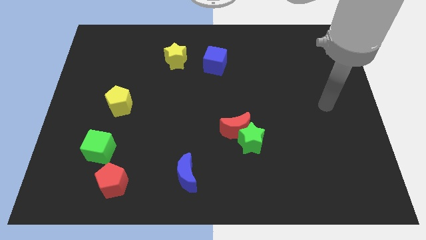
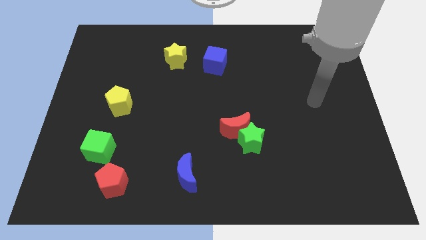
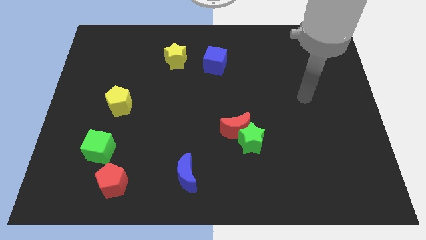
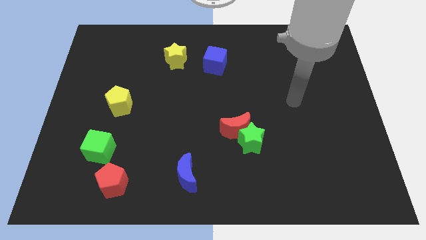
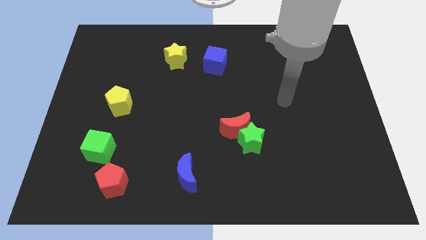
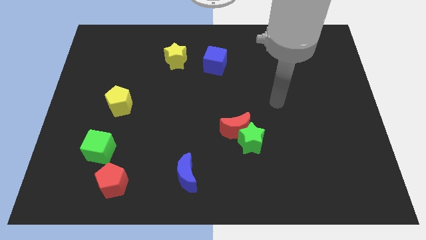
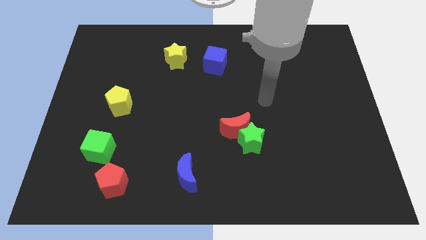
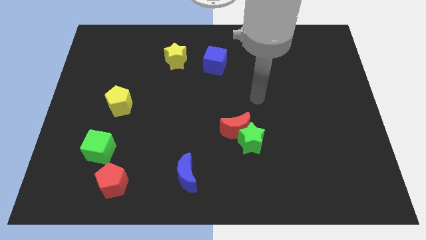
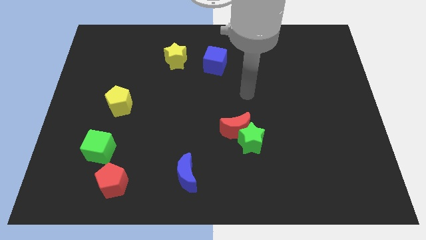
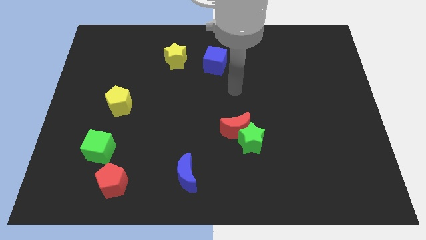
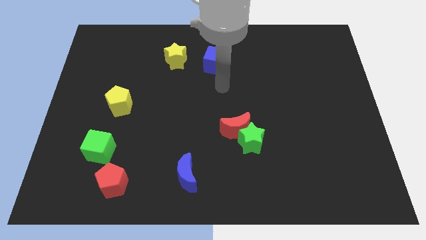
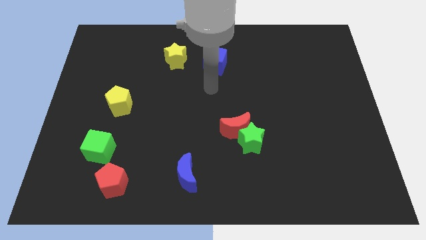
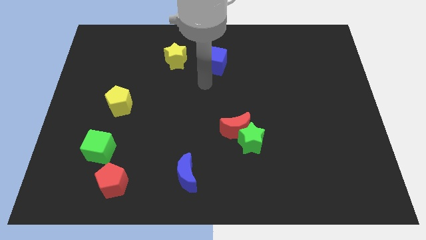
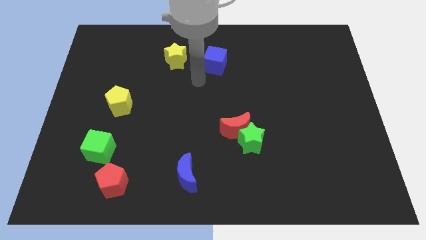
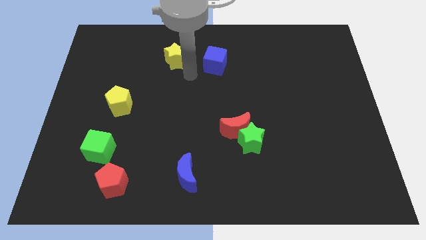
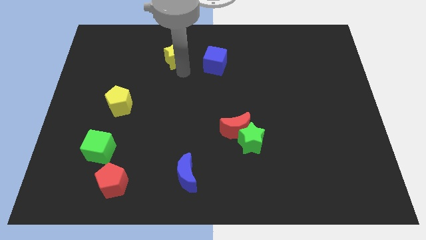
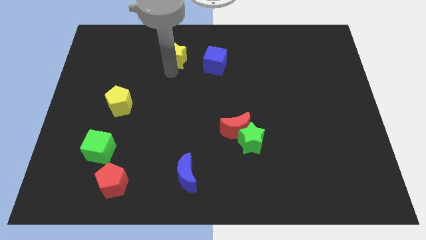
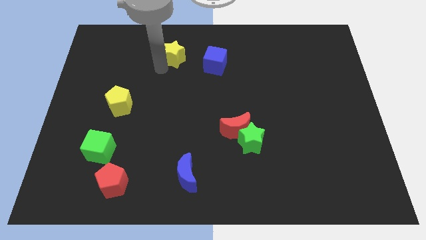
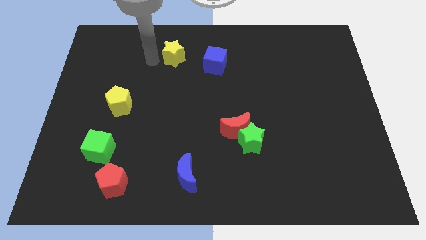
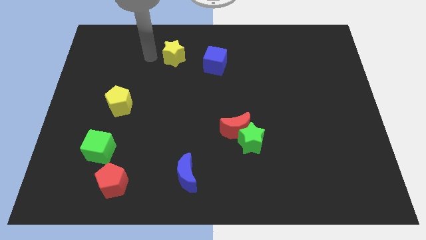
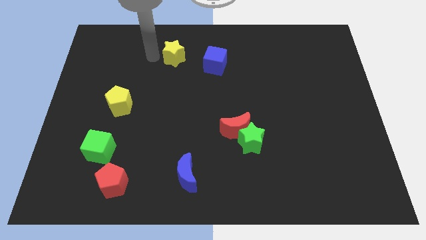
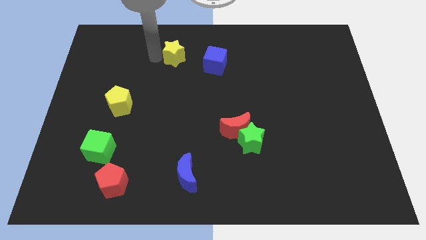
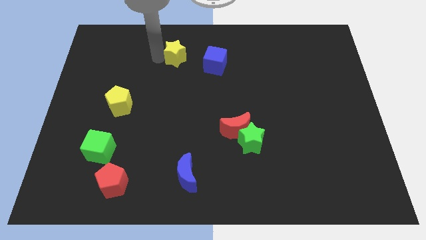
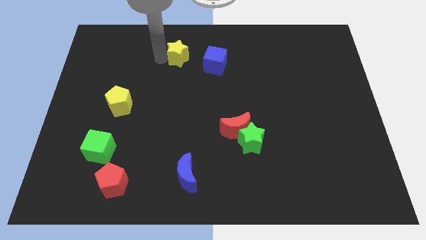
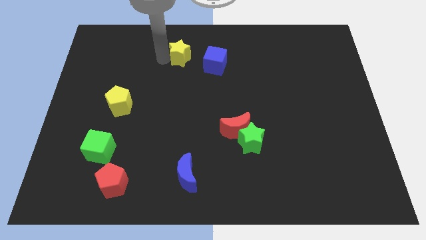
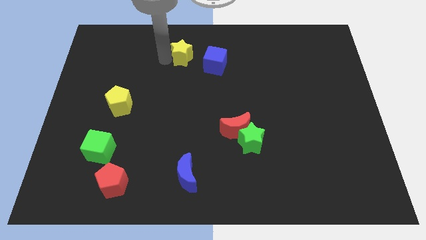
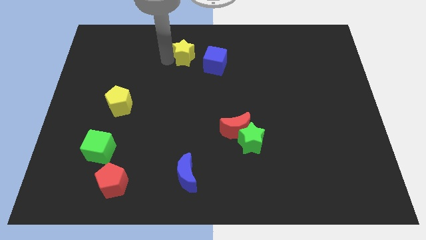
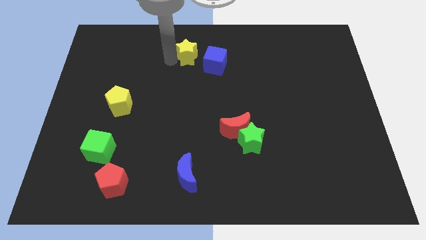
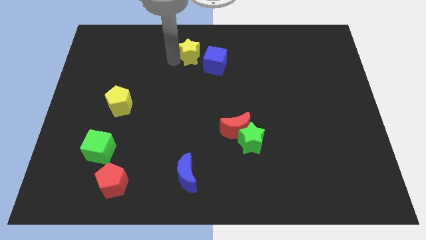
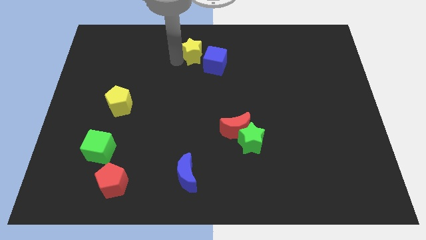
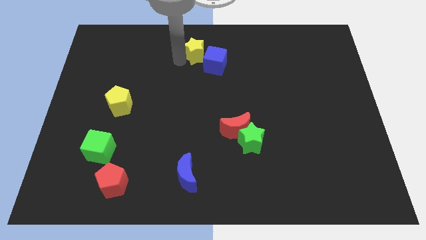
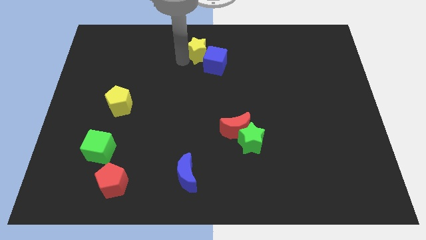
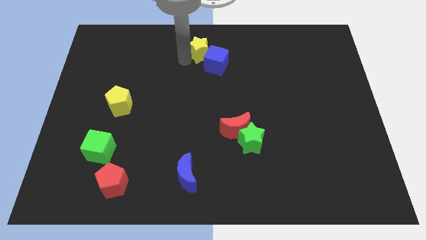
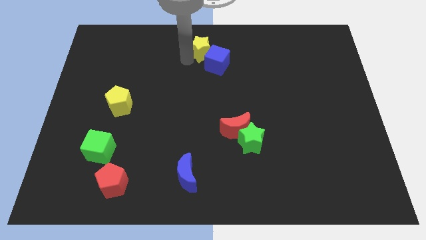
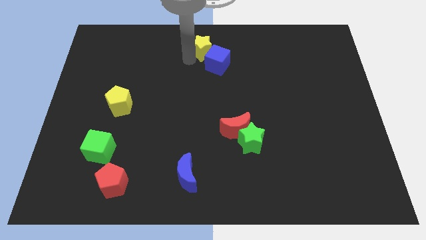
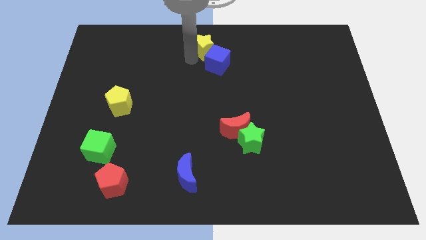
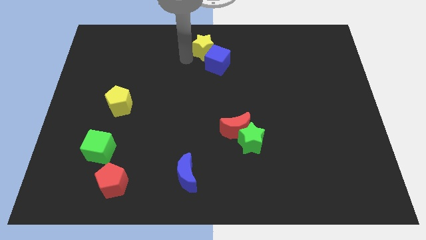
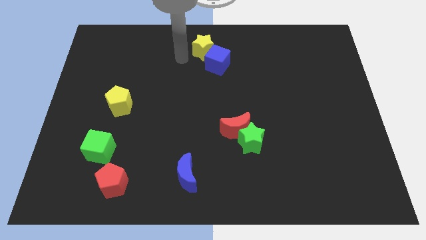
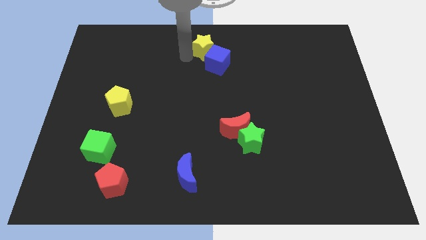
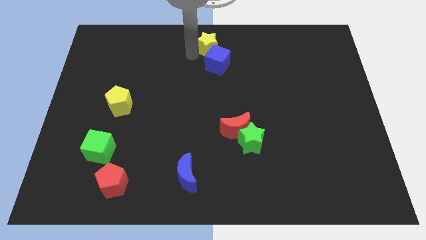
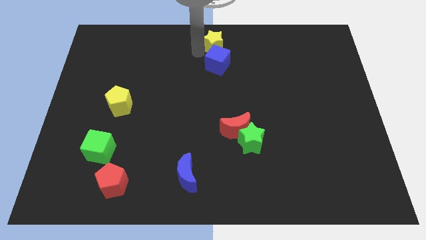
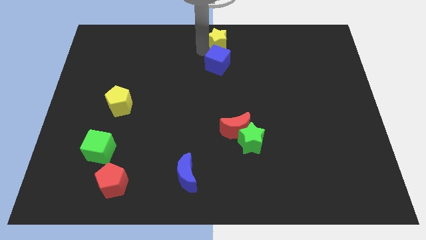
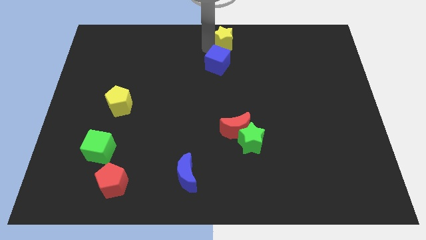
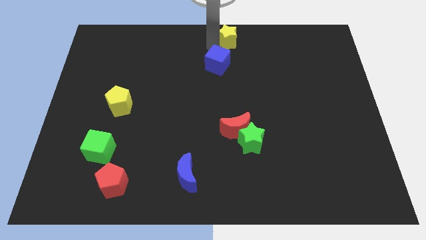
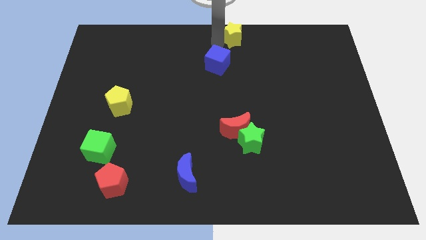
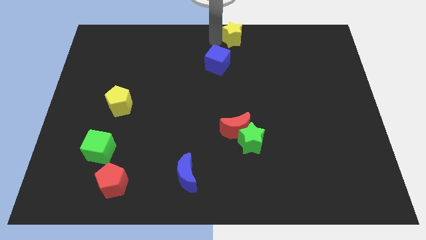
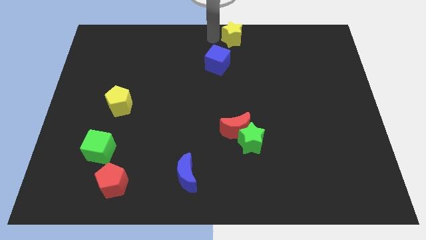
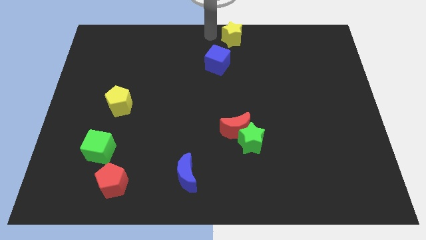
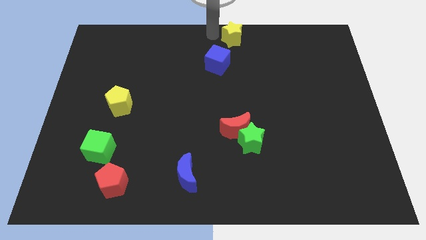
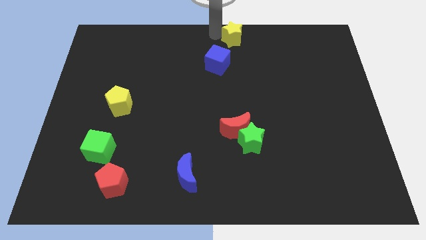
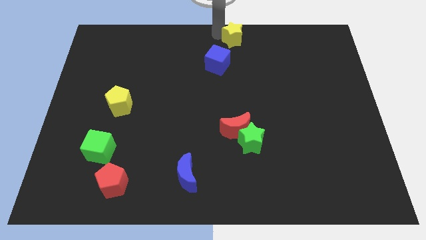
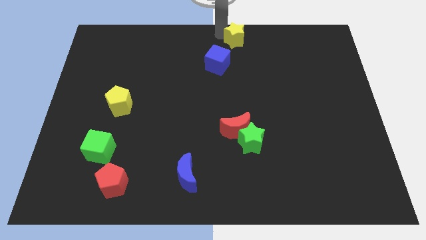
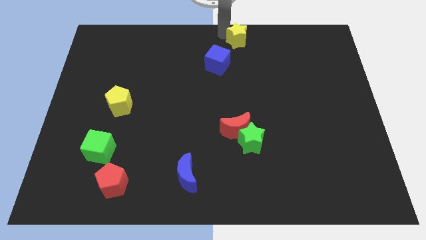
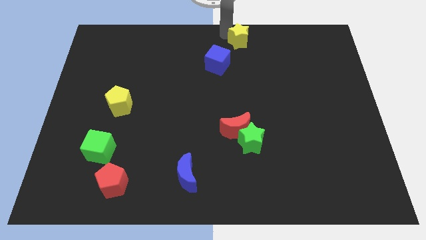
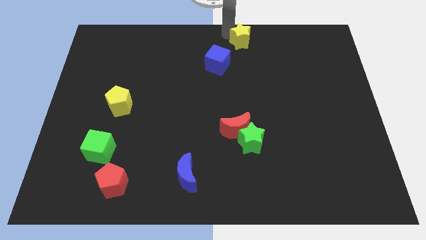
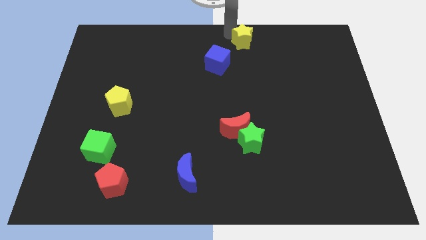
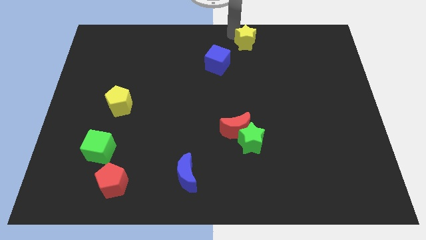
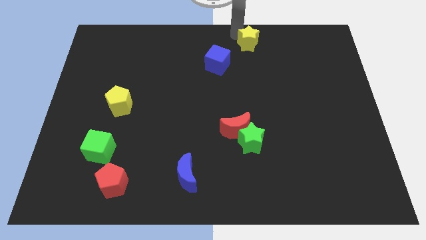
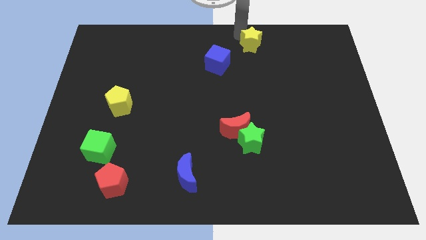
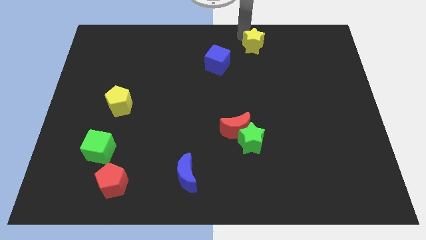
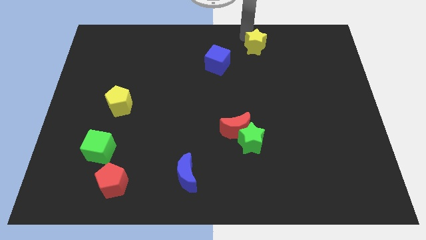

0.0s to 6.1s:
move the yellow star to the right

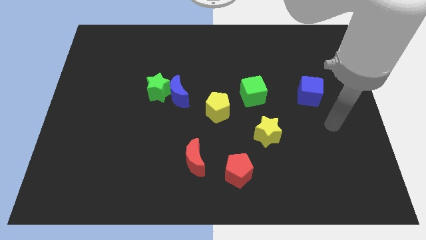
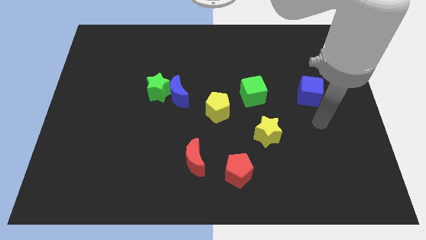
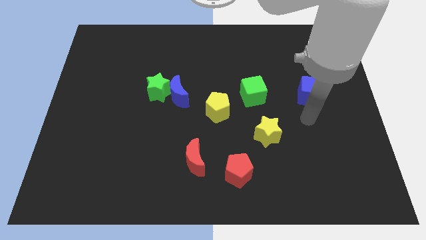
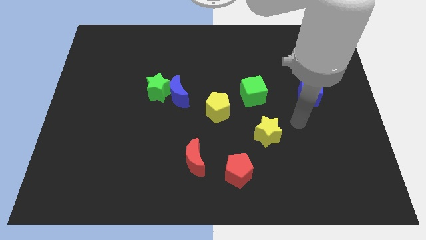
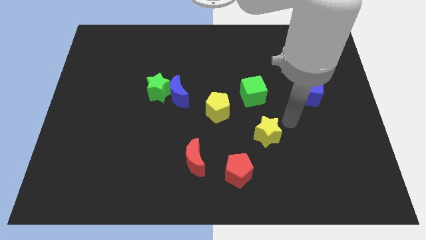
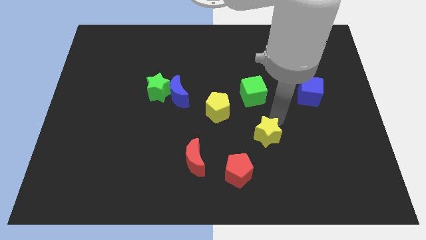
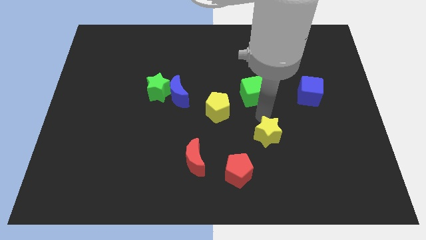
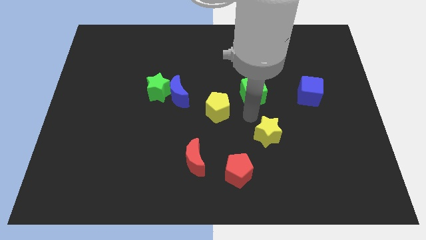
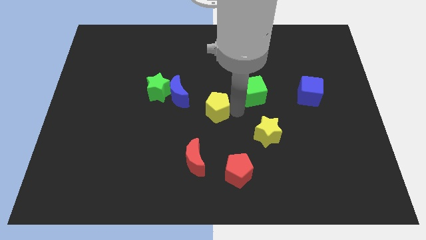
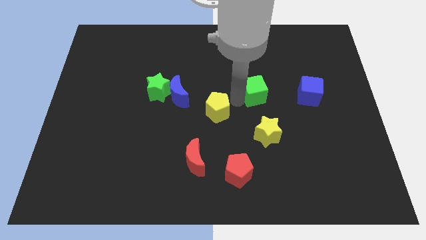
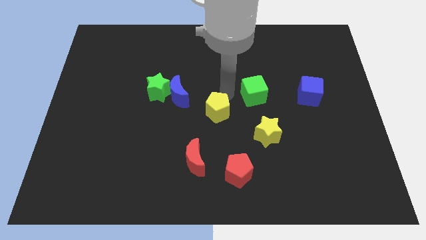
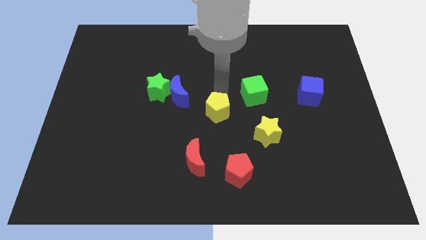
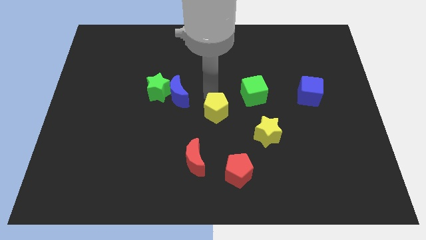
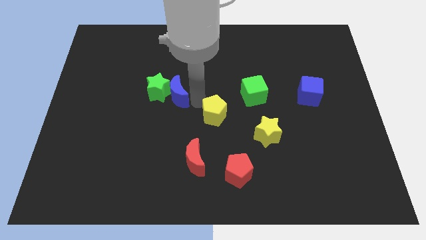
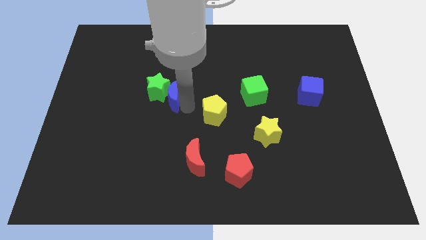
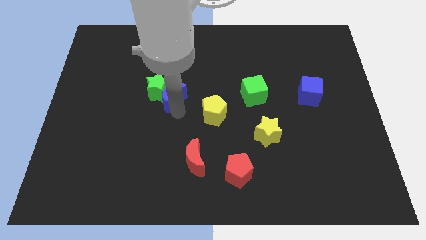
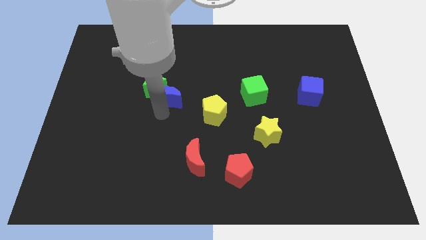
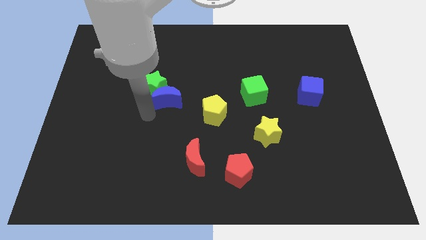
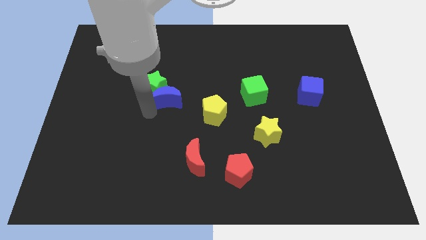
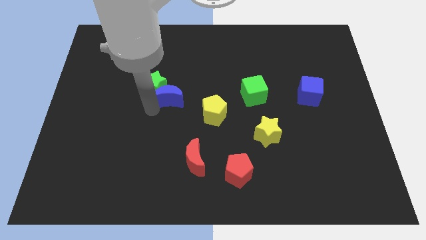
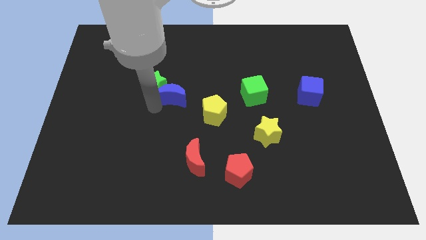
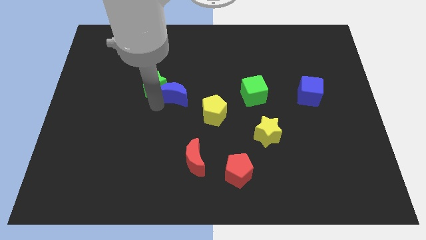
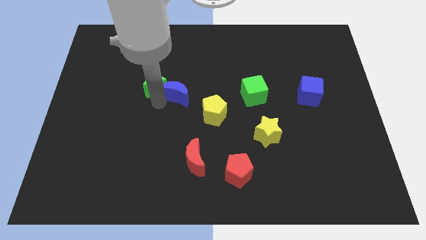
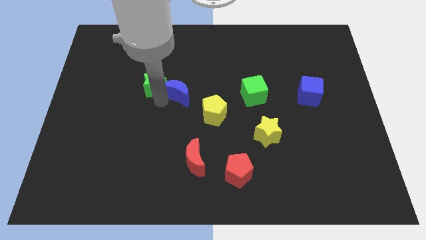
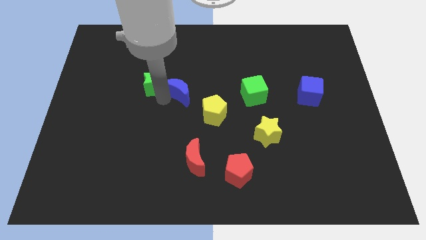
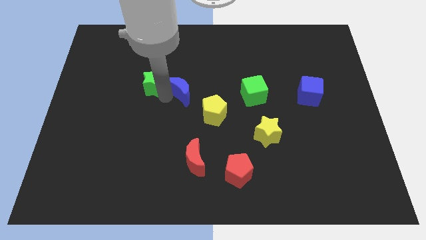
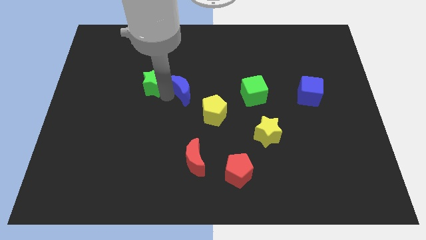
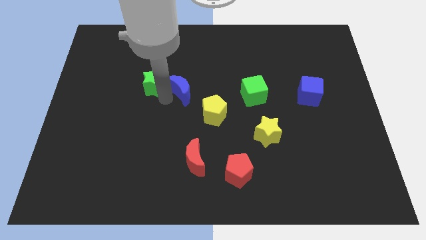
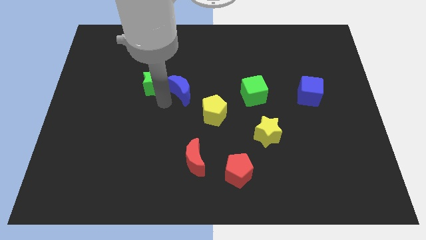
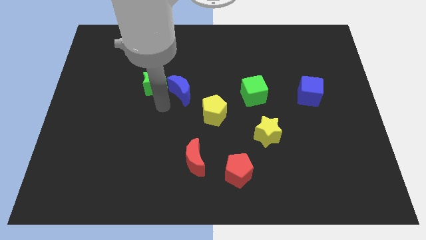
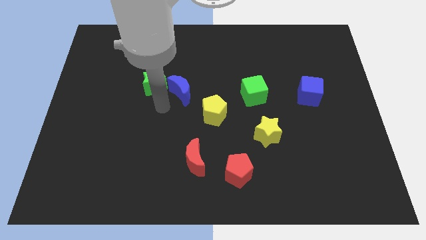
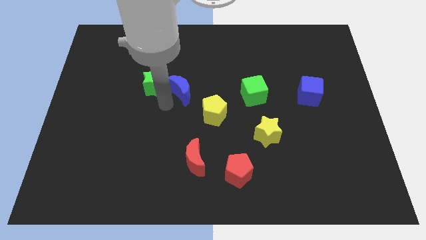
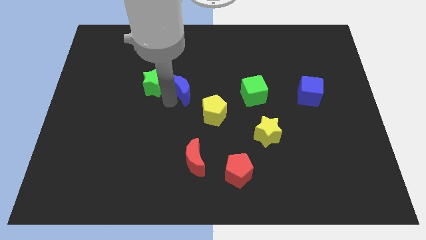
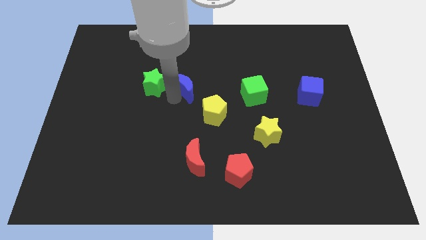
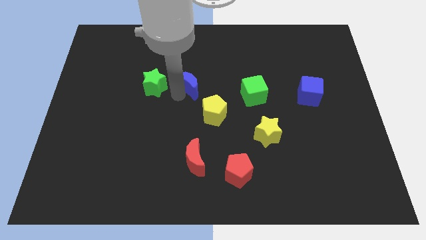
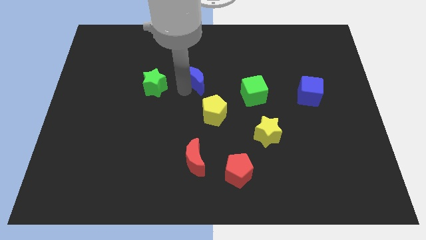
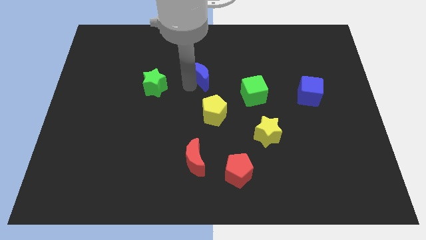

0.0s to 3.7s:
slightly slide the blue moon up and right diagonally
